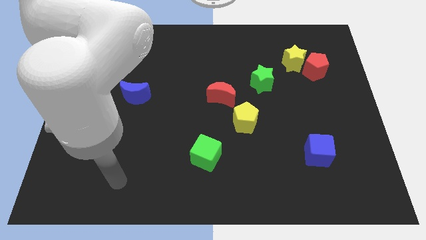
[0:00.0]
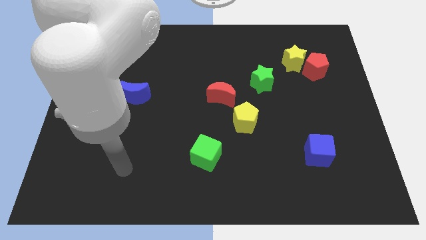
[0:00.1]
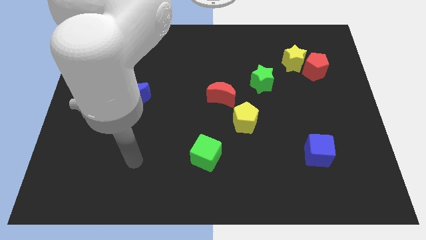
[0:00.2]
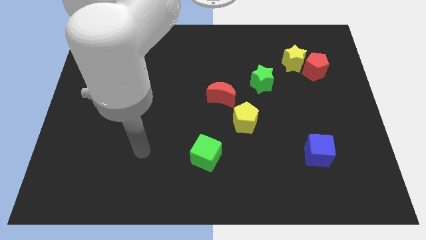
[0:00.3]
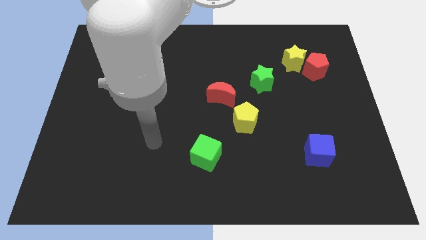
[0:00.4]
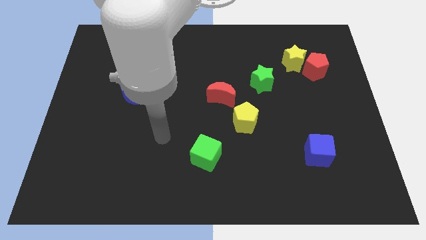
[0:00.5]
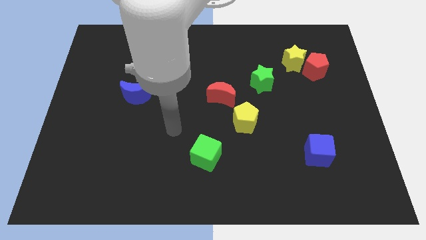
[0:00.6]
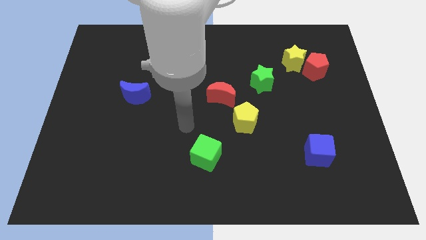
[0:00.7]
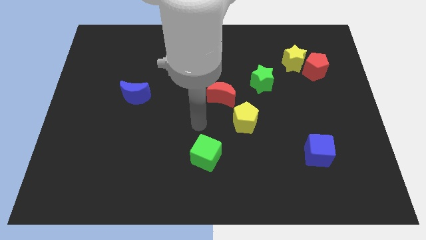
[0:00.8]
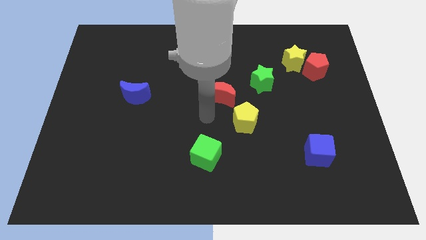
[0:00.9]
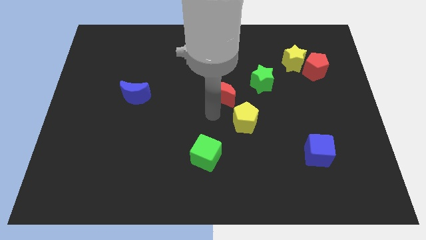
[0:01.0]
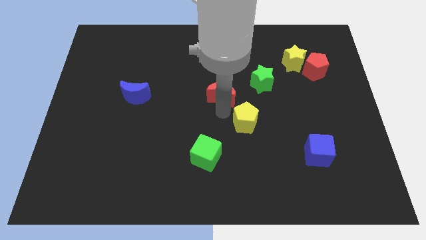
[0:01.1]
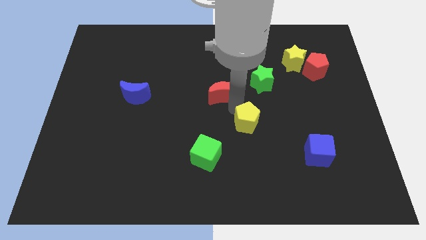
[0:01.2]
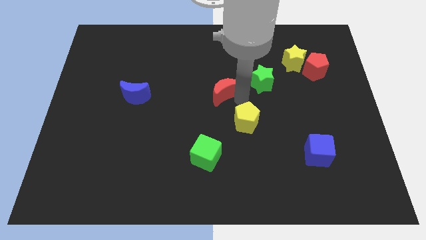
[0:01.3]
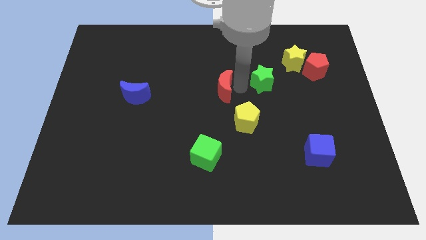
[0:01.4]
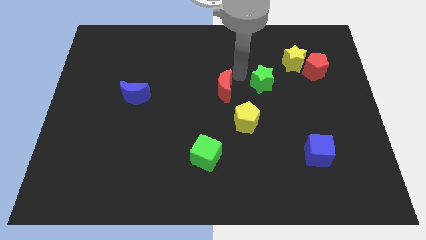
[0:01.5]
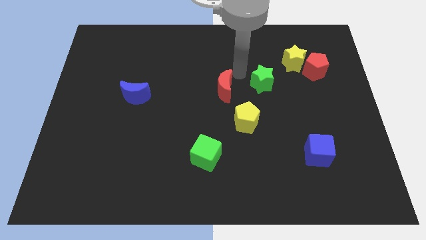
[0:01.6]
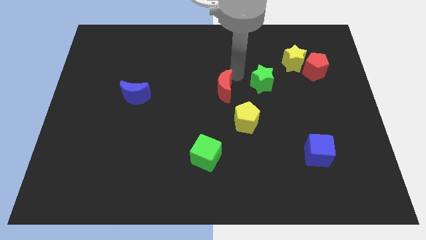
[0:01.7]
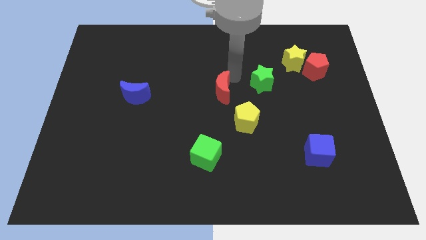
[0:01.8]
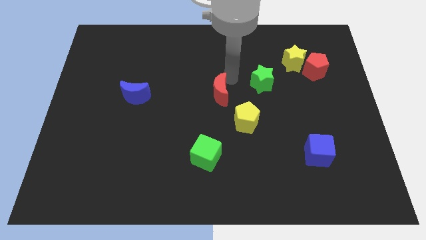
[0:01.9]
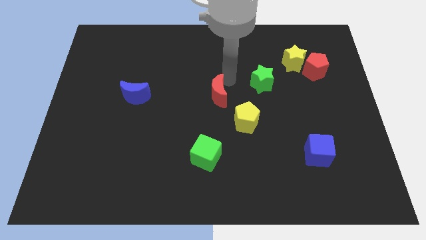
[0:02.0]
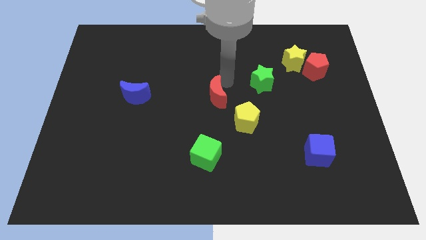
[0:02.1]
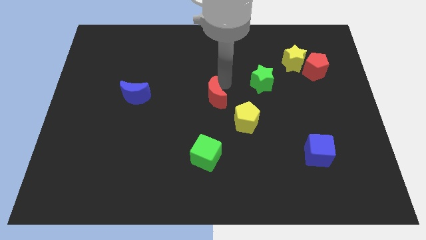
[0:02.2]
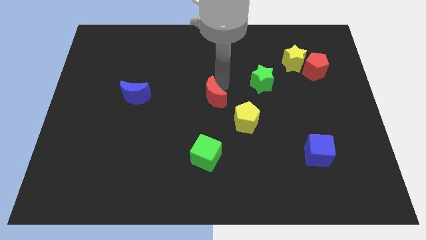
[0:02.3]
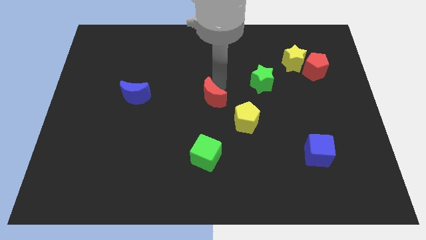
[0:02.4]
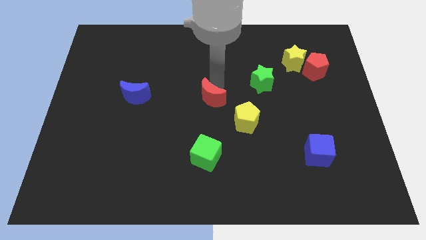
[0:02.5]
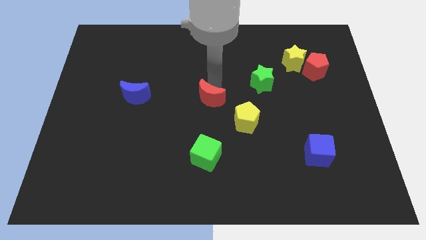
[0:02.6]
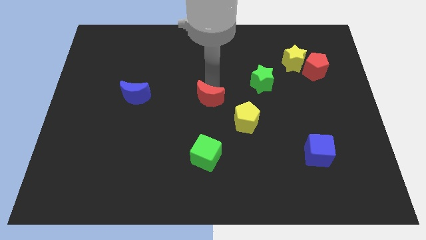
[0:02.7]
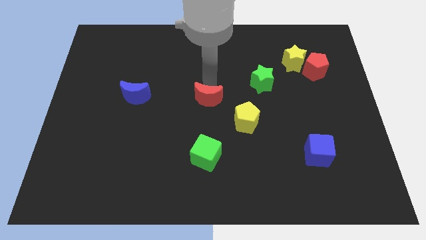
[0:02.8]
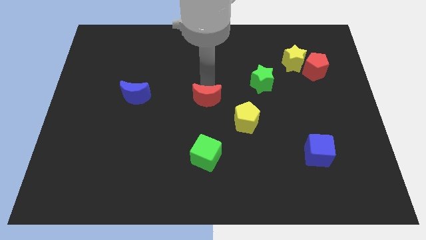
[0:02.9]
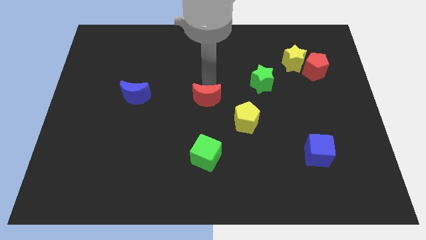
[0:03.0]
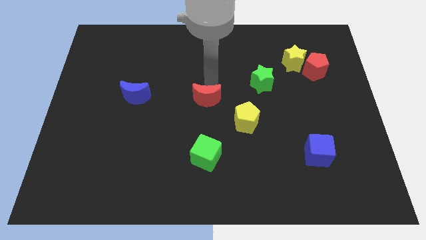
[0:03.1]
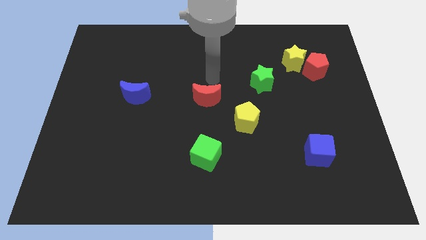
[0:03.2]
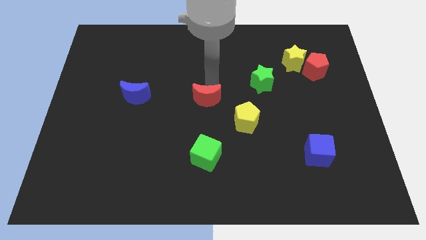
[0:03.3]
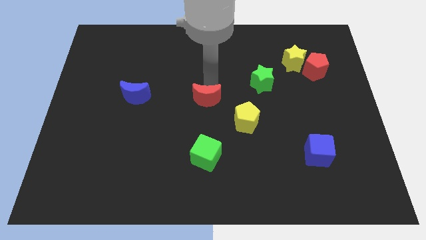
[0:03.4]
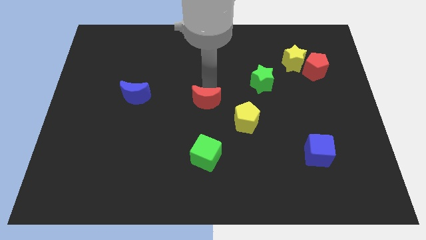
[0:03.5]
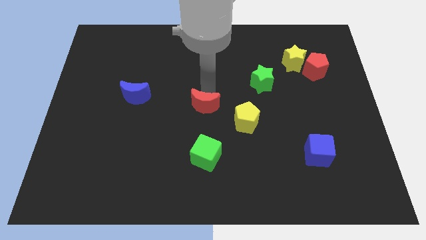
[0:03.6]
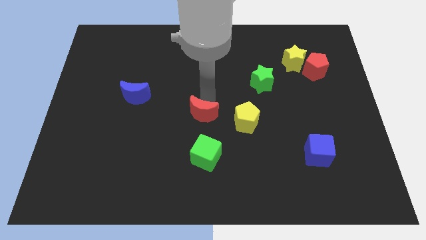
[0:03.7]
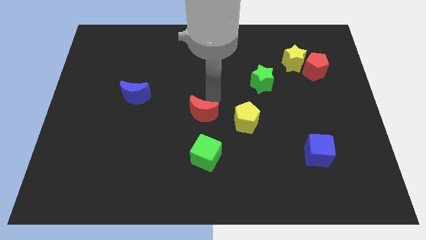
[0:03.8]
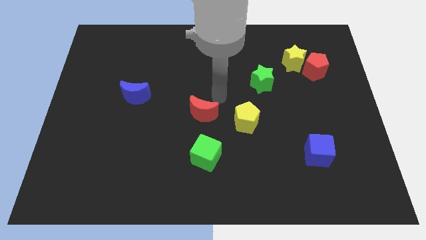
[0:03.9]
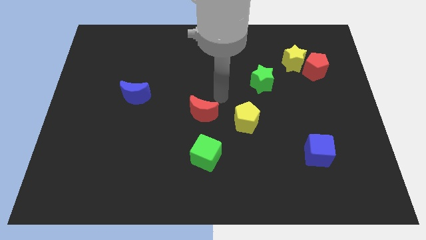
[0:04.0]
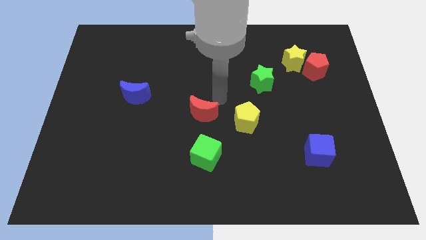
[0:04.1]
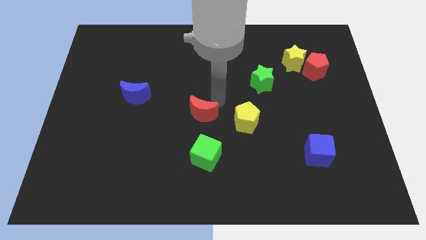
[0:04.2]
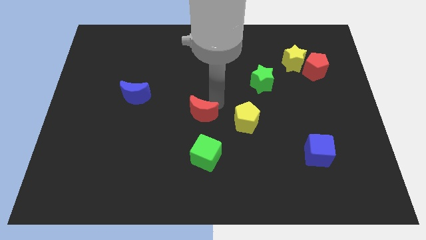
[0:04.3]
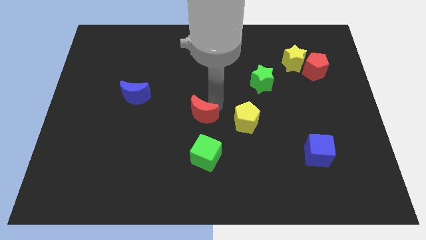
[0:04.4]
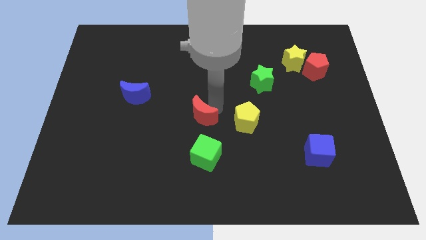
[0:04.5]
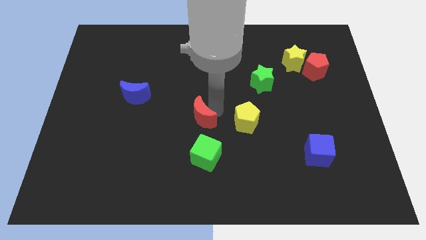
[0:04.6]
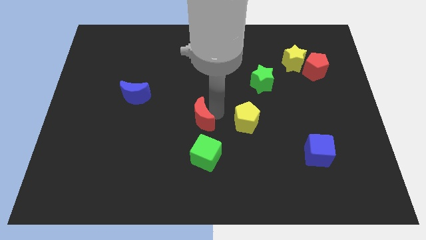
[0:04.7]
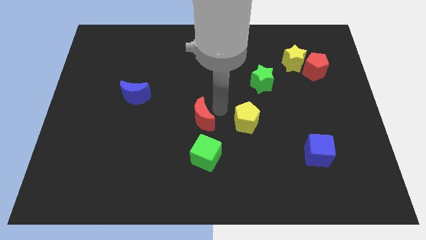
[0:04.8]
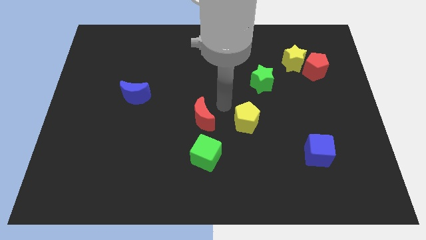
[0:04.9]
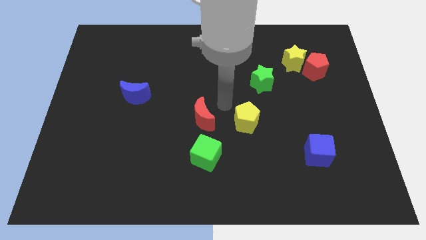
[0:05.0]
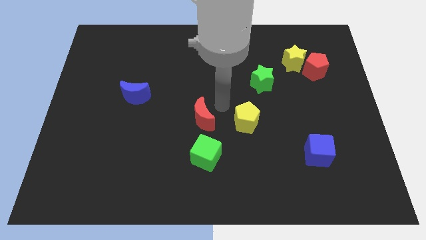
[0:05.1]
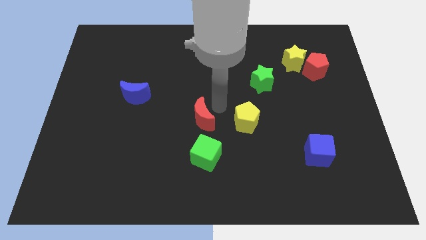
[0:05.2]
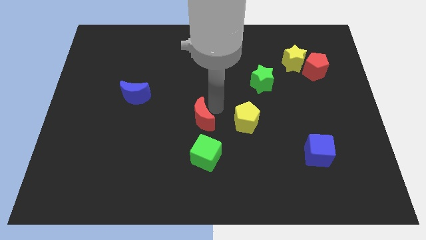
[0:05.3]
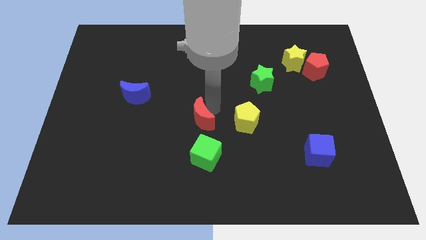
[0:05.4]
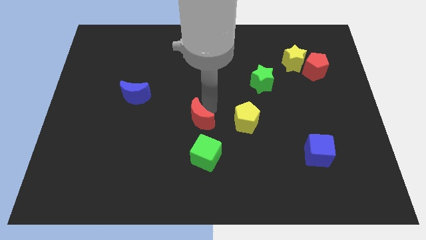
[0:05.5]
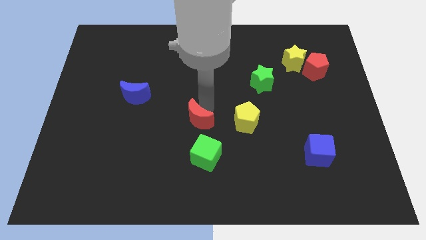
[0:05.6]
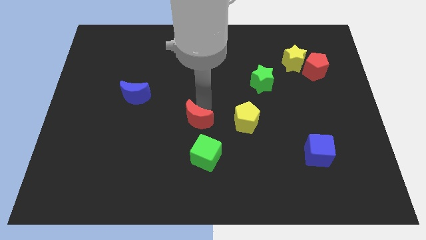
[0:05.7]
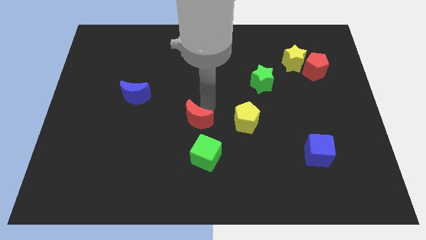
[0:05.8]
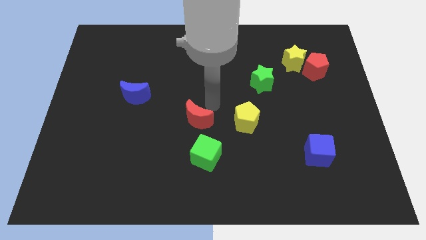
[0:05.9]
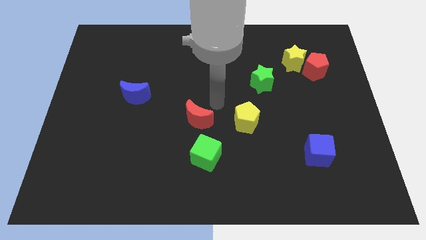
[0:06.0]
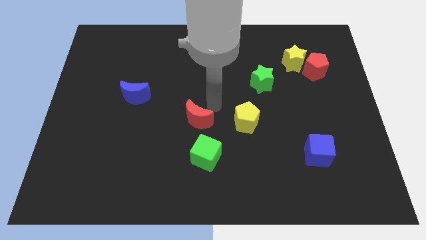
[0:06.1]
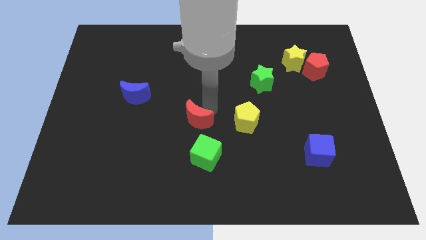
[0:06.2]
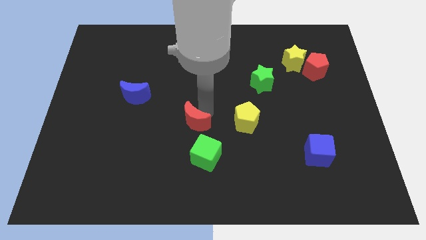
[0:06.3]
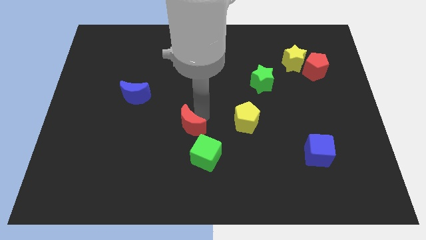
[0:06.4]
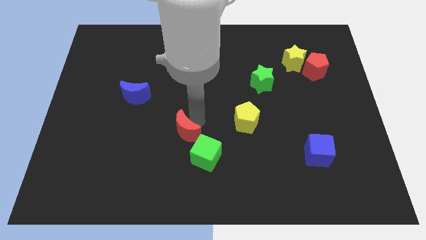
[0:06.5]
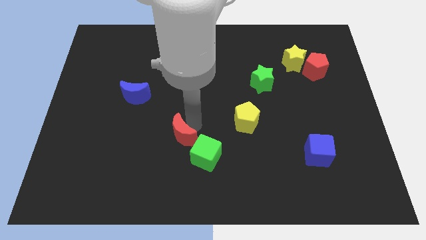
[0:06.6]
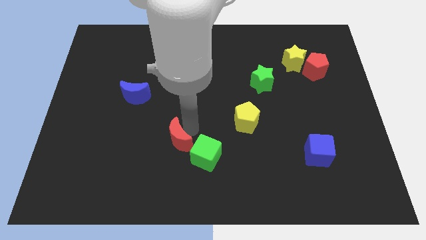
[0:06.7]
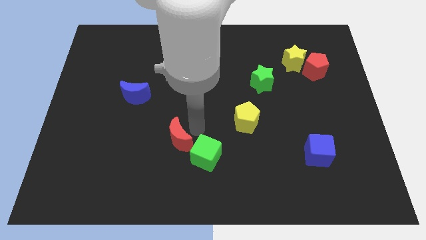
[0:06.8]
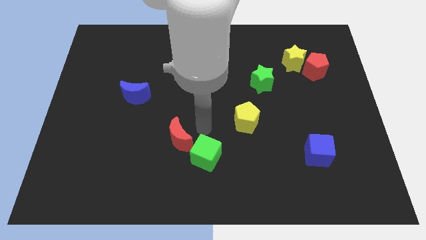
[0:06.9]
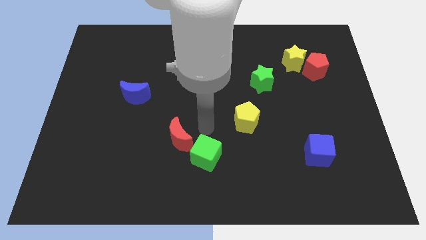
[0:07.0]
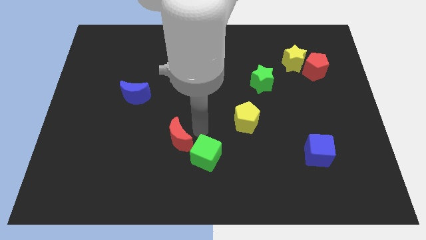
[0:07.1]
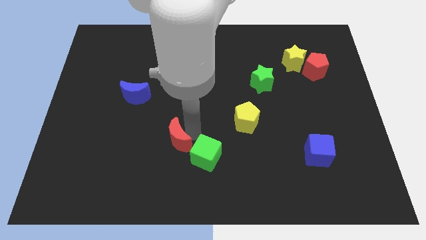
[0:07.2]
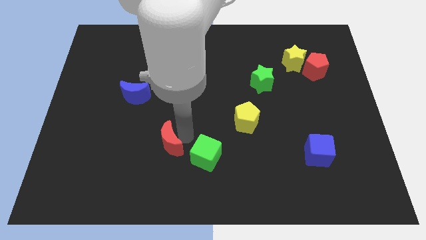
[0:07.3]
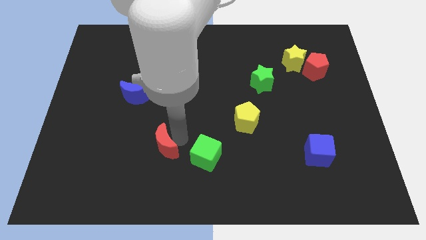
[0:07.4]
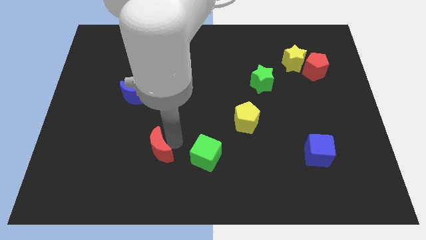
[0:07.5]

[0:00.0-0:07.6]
slide the red moon downwards and to the left diagonally

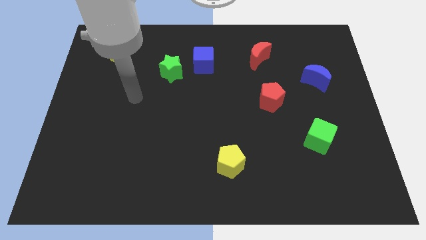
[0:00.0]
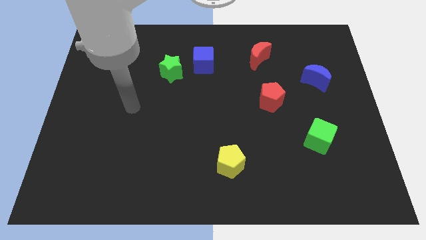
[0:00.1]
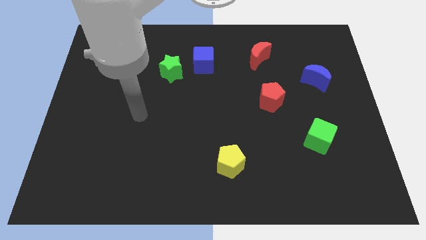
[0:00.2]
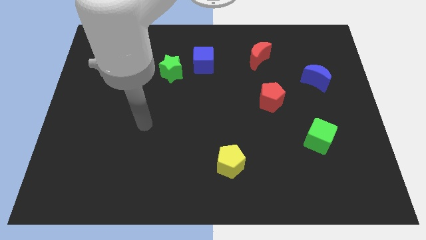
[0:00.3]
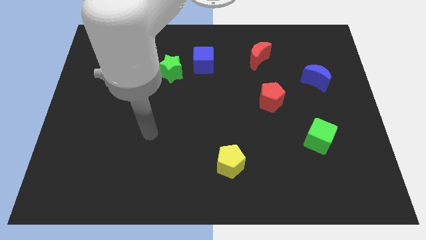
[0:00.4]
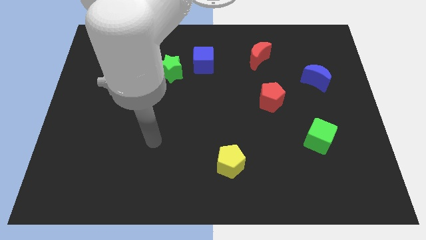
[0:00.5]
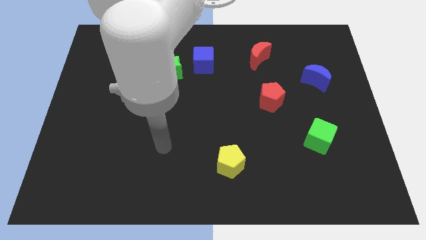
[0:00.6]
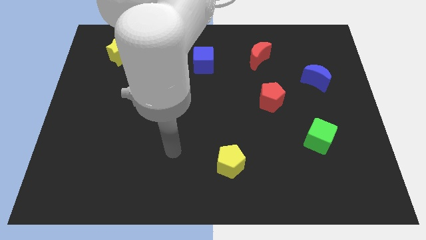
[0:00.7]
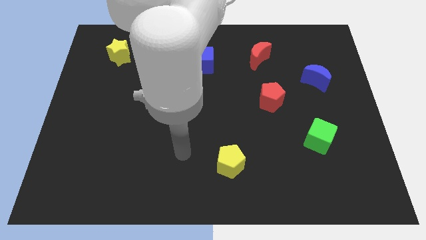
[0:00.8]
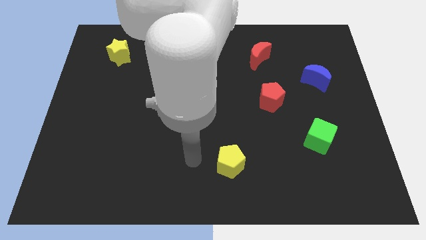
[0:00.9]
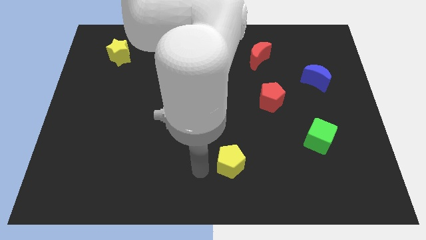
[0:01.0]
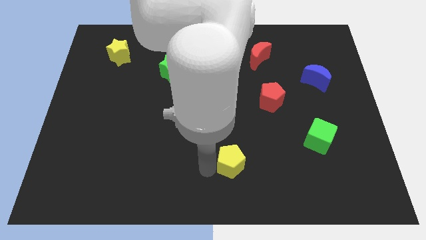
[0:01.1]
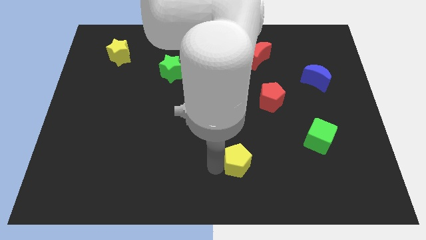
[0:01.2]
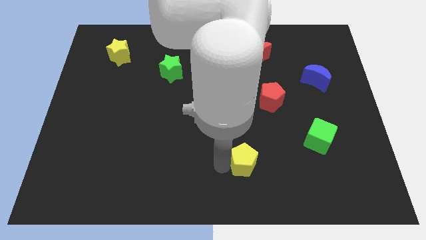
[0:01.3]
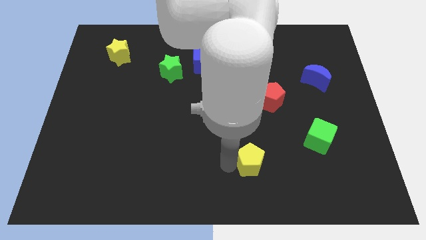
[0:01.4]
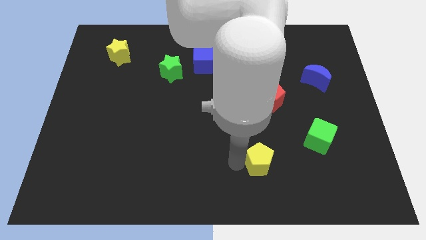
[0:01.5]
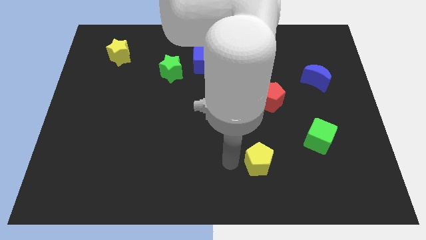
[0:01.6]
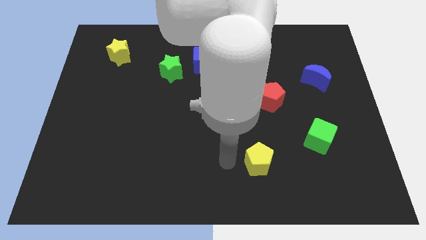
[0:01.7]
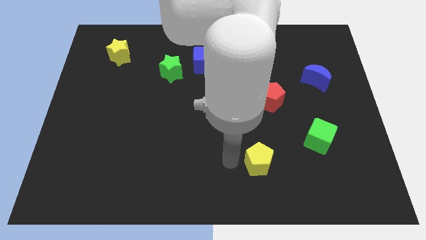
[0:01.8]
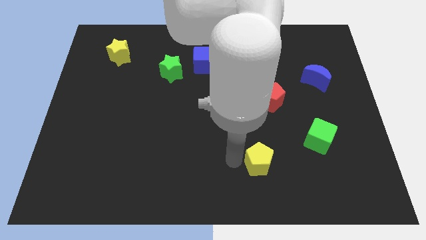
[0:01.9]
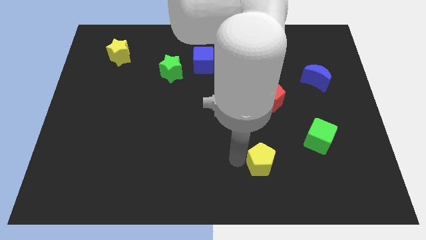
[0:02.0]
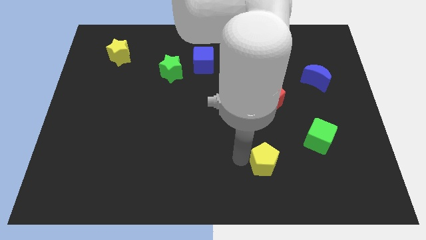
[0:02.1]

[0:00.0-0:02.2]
slightly push the yellow pentagon to the right
